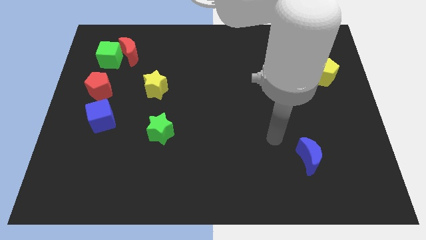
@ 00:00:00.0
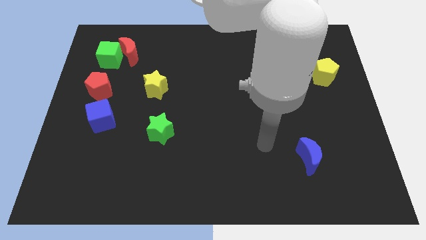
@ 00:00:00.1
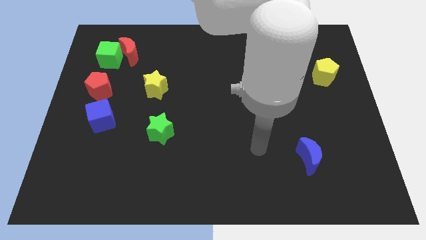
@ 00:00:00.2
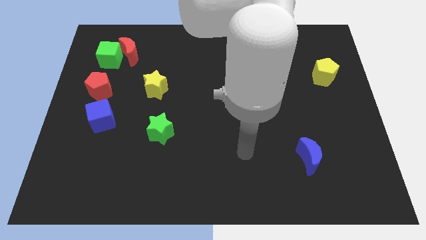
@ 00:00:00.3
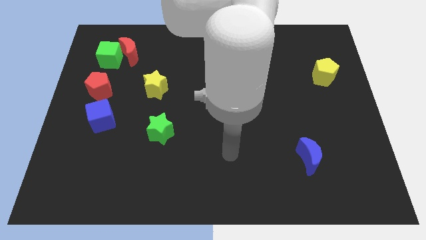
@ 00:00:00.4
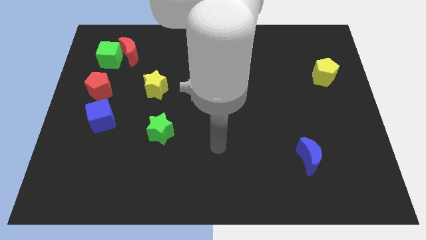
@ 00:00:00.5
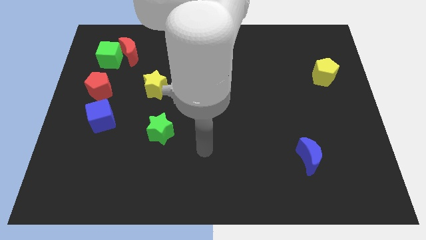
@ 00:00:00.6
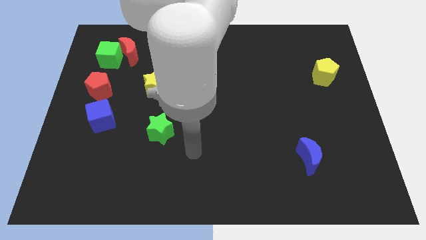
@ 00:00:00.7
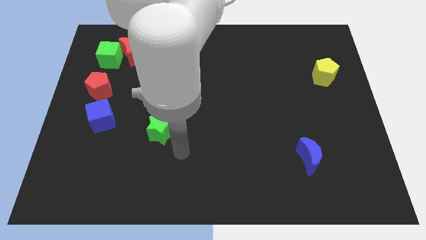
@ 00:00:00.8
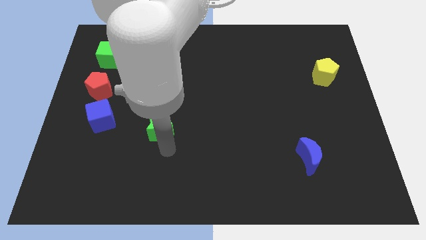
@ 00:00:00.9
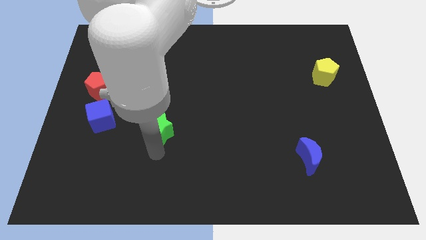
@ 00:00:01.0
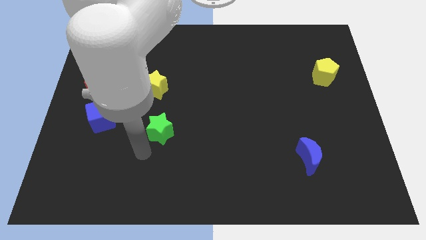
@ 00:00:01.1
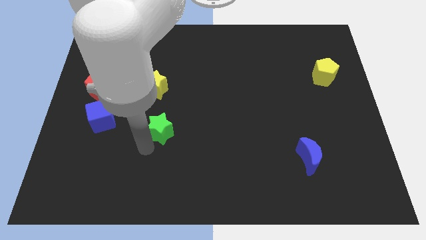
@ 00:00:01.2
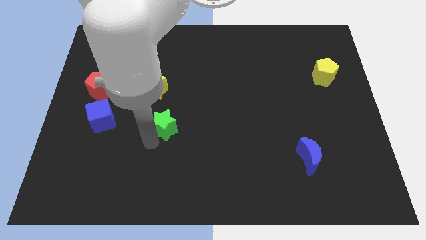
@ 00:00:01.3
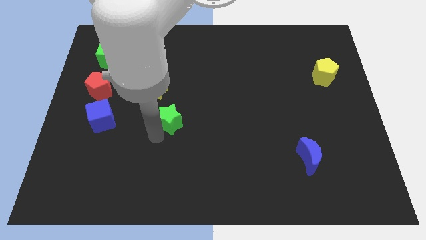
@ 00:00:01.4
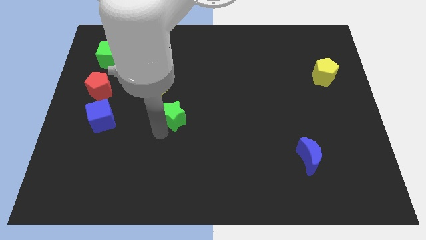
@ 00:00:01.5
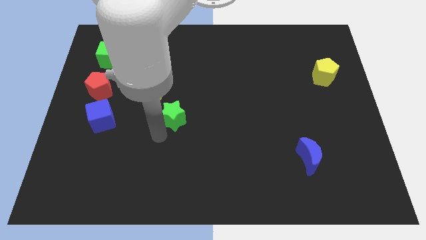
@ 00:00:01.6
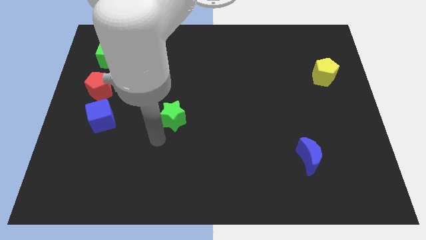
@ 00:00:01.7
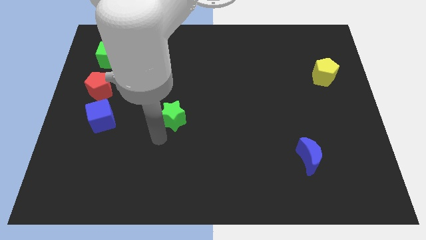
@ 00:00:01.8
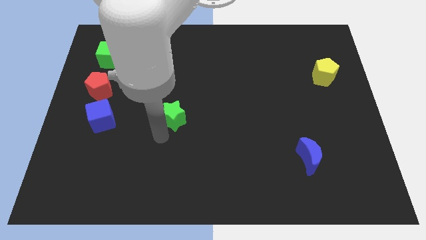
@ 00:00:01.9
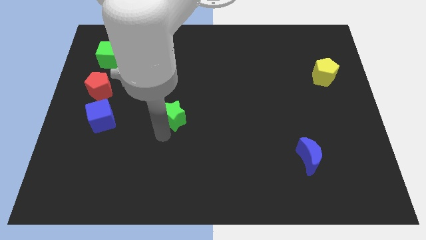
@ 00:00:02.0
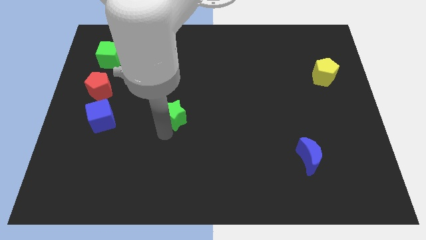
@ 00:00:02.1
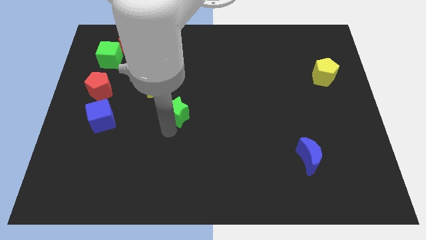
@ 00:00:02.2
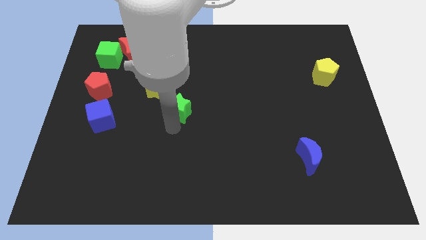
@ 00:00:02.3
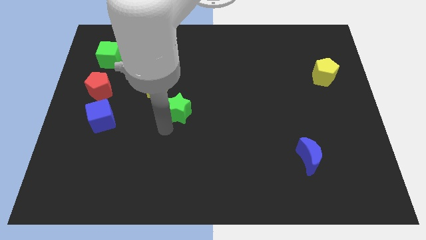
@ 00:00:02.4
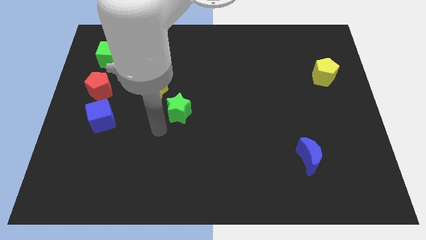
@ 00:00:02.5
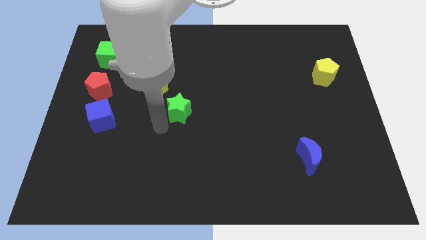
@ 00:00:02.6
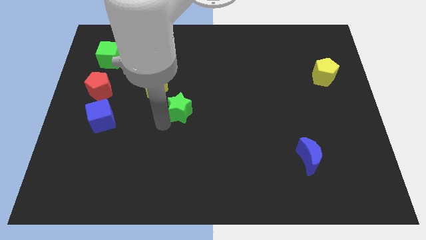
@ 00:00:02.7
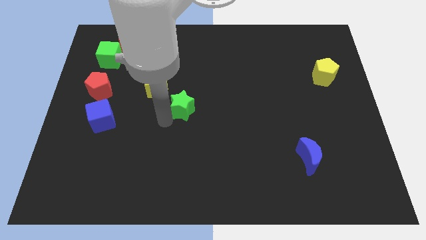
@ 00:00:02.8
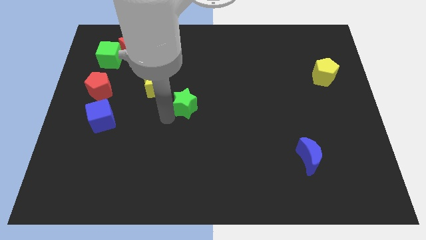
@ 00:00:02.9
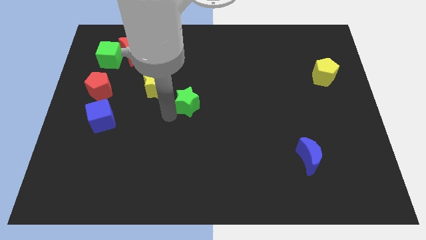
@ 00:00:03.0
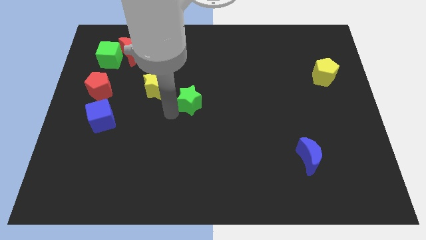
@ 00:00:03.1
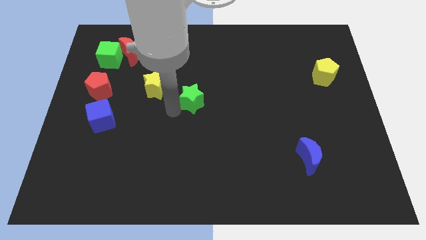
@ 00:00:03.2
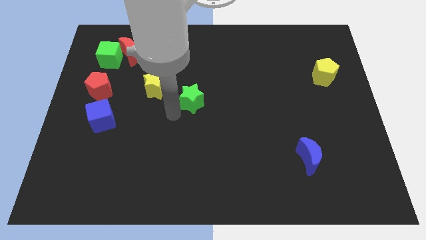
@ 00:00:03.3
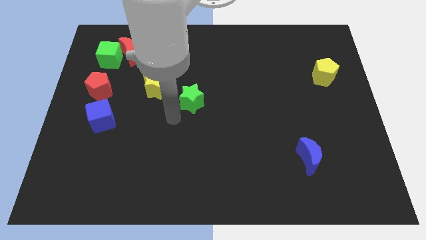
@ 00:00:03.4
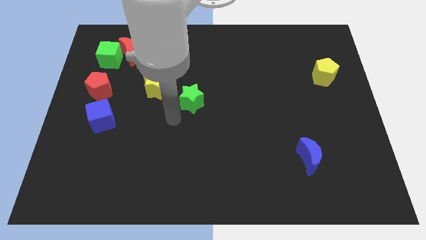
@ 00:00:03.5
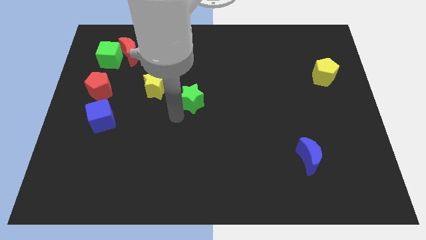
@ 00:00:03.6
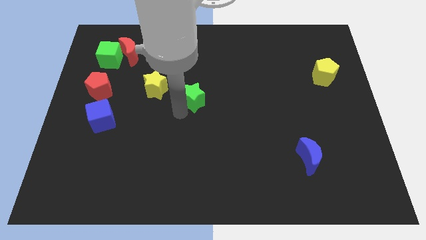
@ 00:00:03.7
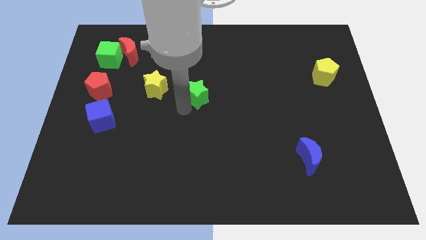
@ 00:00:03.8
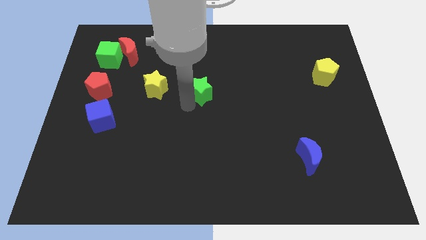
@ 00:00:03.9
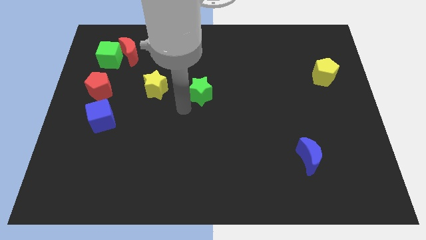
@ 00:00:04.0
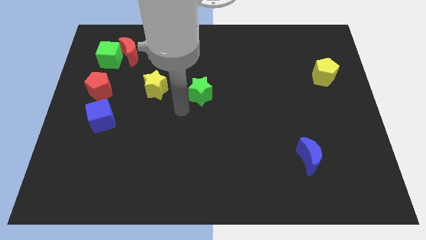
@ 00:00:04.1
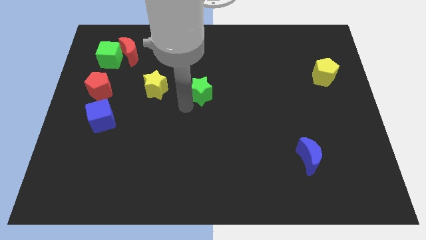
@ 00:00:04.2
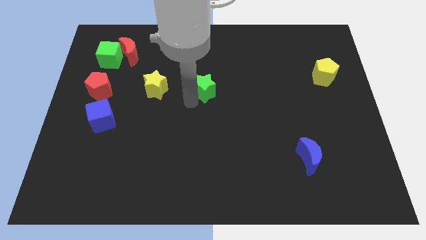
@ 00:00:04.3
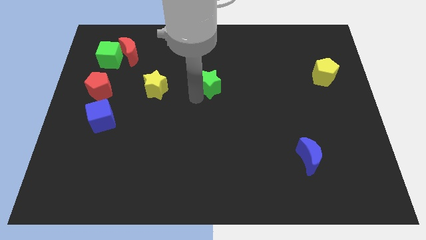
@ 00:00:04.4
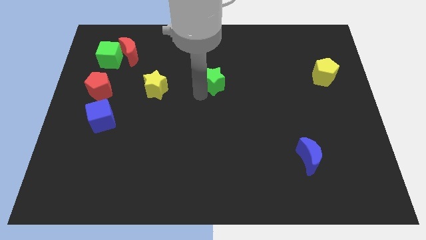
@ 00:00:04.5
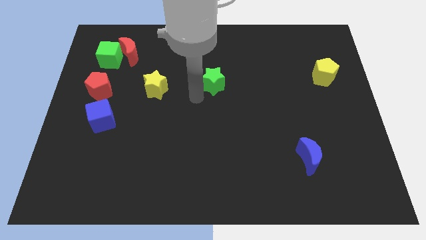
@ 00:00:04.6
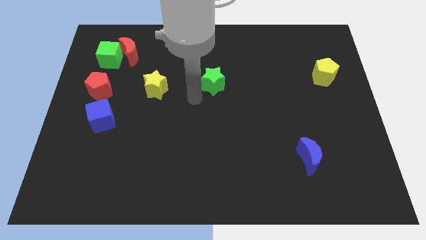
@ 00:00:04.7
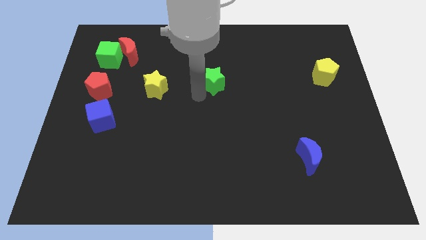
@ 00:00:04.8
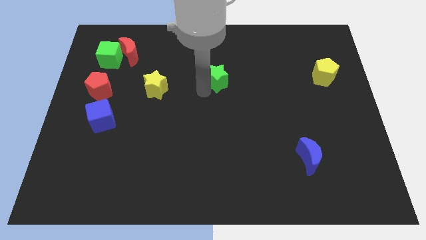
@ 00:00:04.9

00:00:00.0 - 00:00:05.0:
move the green star up and to the right diagonally

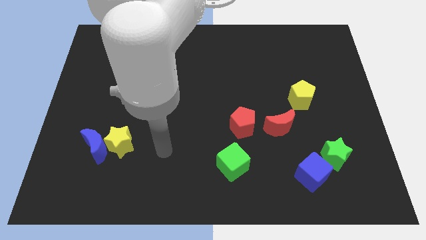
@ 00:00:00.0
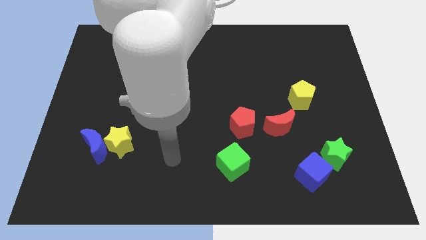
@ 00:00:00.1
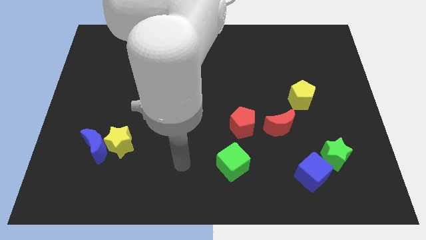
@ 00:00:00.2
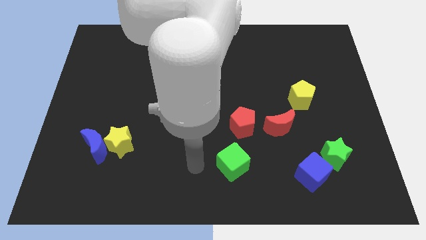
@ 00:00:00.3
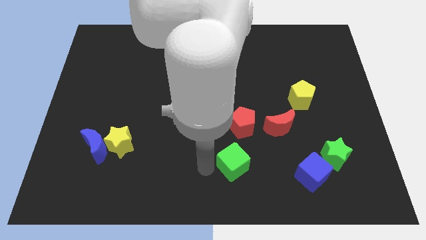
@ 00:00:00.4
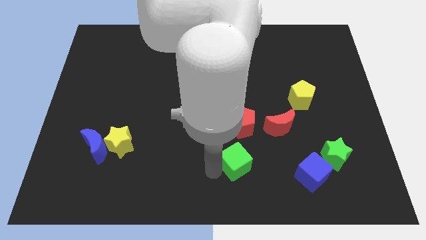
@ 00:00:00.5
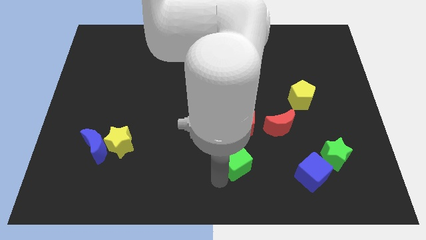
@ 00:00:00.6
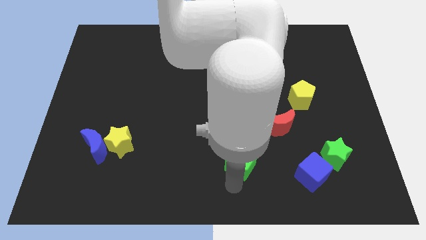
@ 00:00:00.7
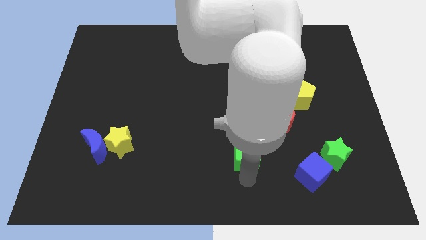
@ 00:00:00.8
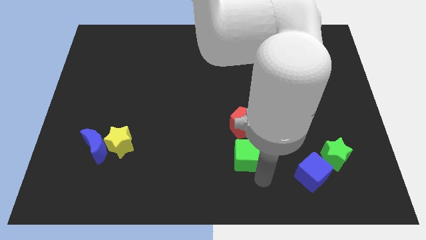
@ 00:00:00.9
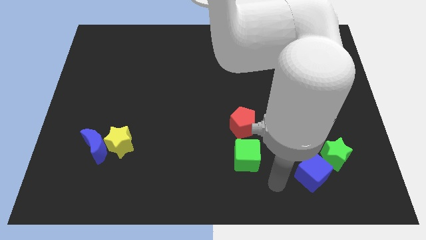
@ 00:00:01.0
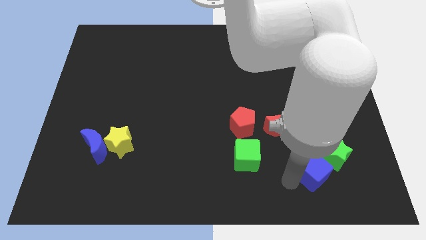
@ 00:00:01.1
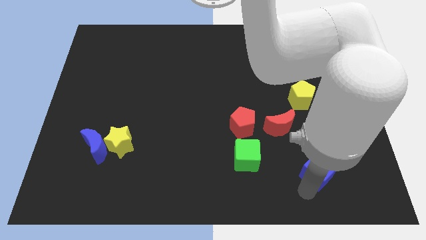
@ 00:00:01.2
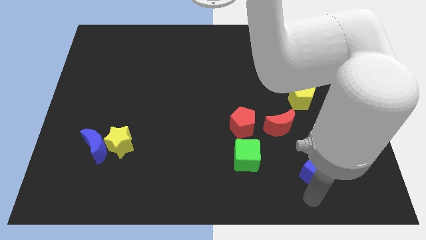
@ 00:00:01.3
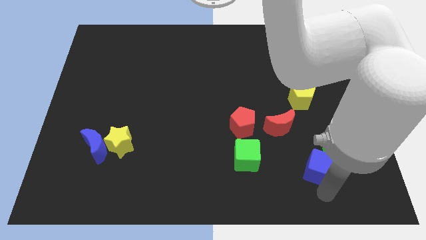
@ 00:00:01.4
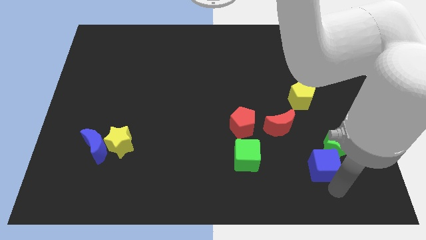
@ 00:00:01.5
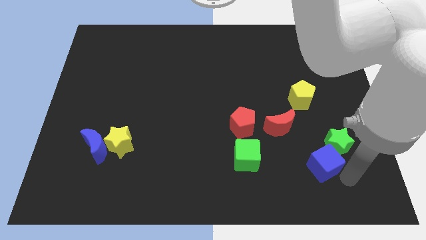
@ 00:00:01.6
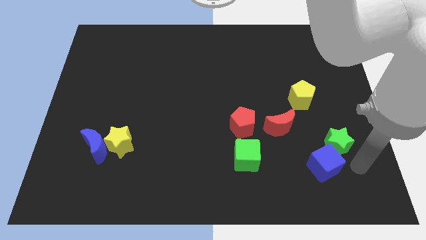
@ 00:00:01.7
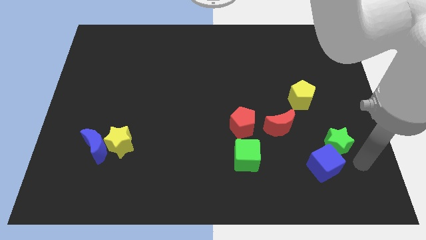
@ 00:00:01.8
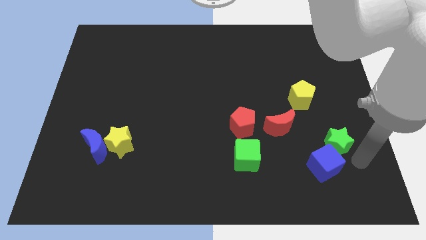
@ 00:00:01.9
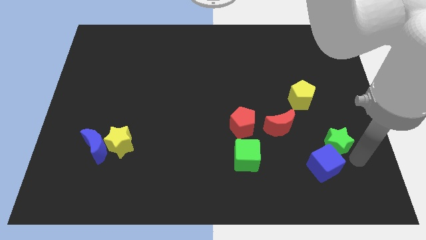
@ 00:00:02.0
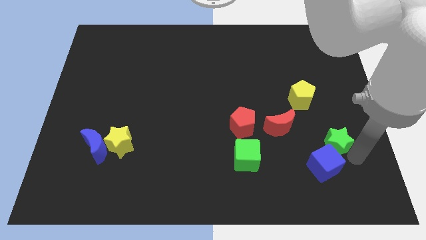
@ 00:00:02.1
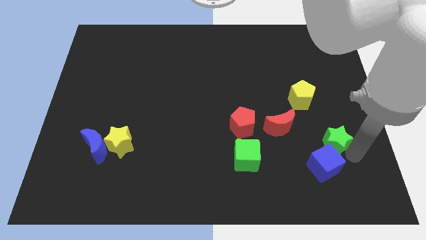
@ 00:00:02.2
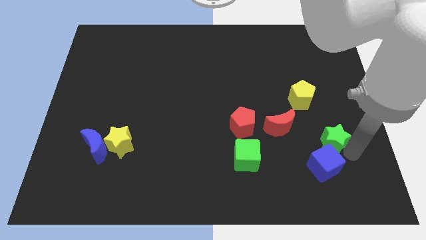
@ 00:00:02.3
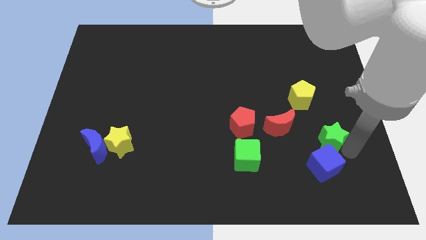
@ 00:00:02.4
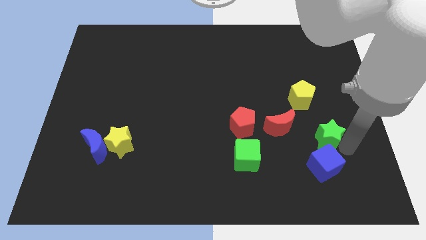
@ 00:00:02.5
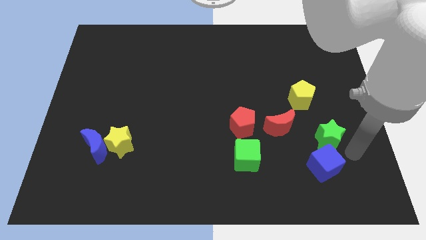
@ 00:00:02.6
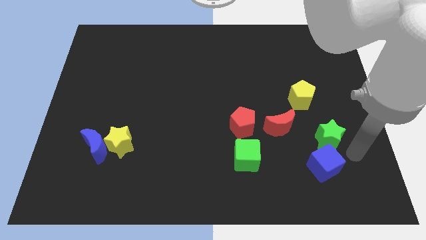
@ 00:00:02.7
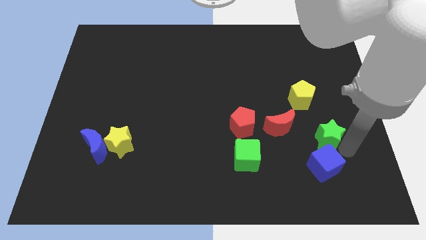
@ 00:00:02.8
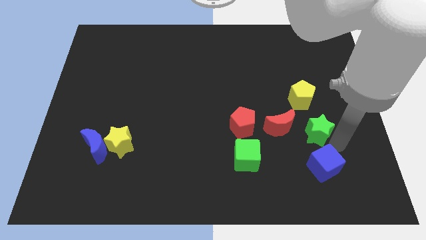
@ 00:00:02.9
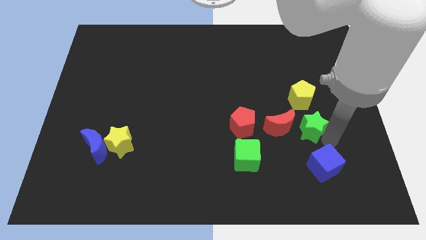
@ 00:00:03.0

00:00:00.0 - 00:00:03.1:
slightly move the green star diagonally up and to the left
